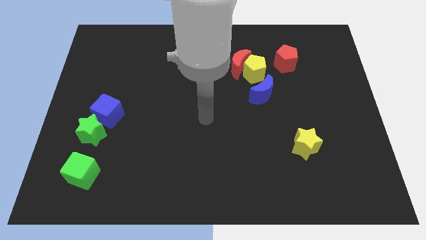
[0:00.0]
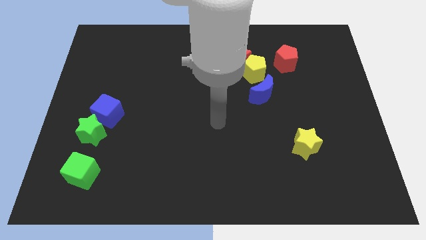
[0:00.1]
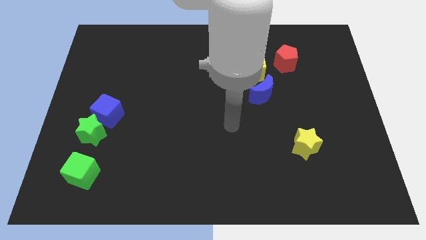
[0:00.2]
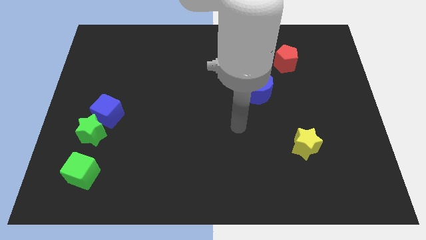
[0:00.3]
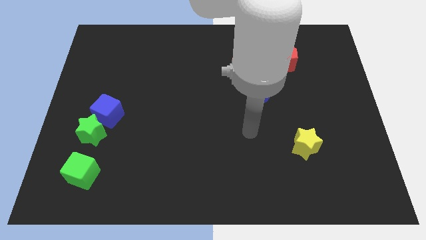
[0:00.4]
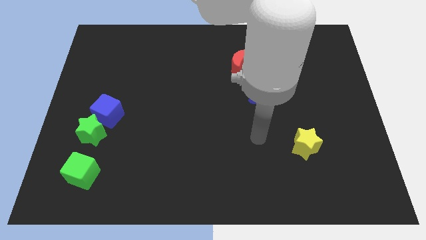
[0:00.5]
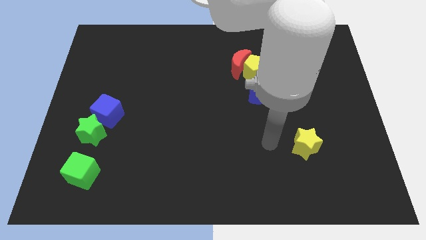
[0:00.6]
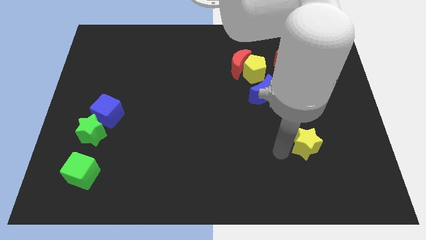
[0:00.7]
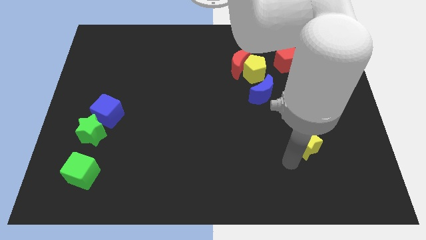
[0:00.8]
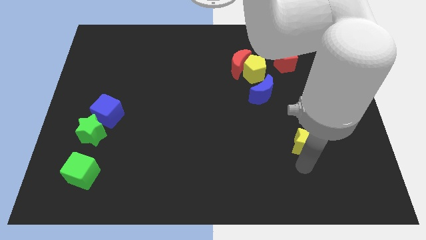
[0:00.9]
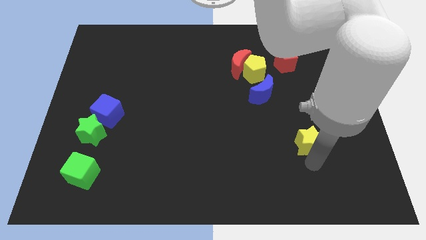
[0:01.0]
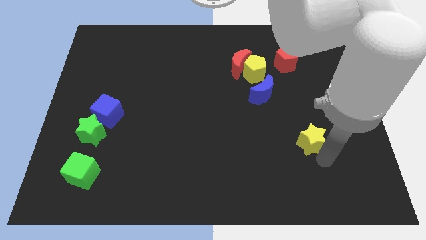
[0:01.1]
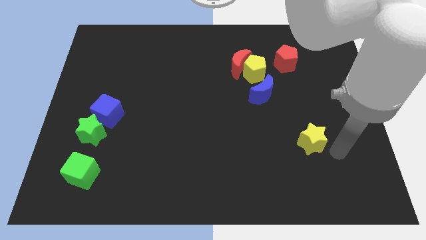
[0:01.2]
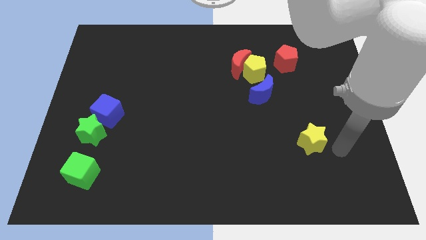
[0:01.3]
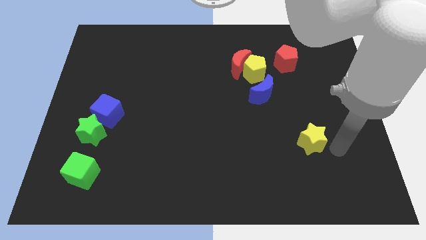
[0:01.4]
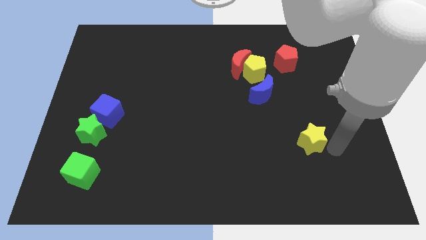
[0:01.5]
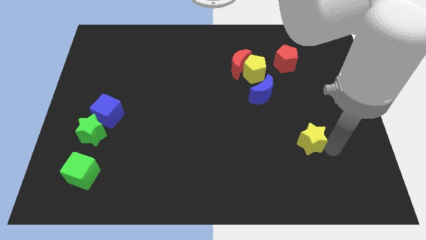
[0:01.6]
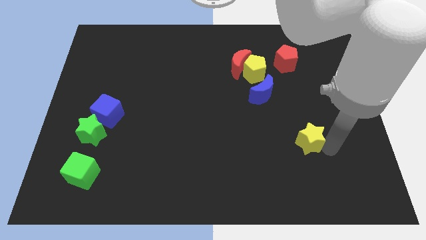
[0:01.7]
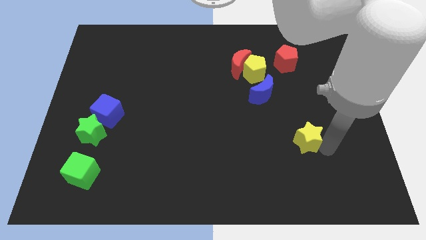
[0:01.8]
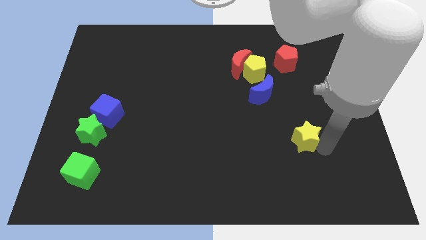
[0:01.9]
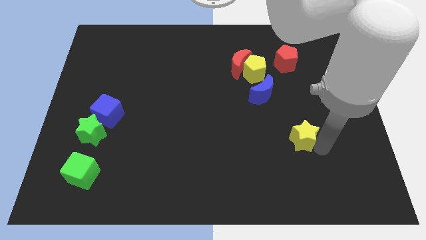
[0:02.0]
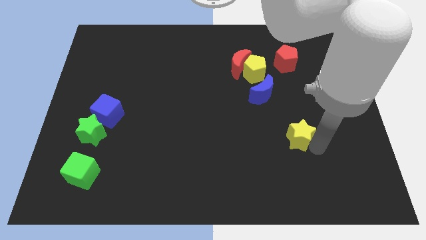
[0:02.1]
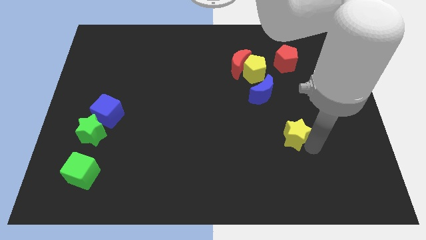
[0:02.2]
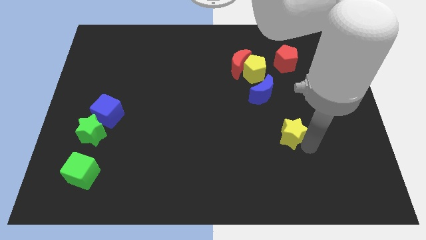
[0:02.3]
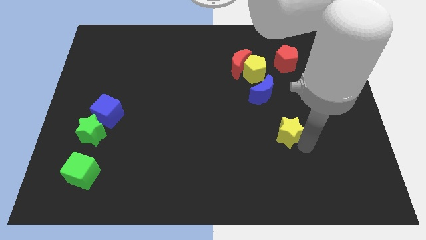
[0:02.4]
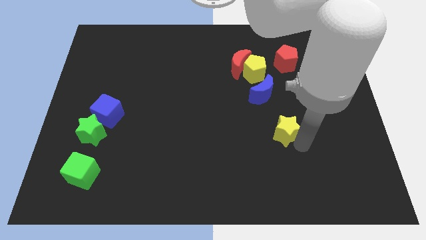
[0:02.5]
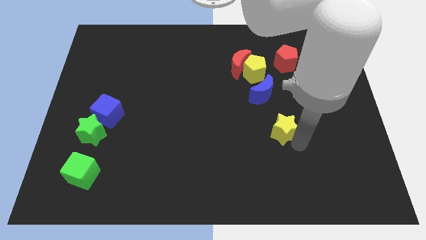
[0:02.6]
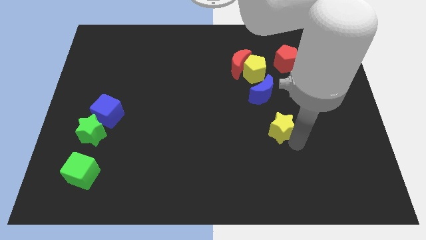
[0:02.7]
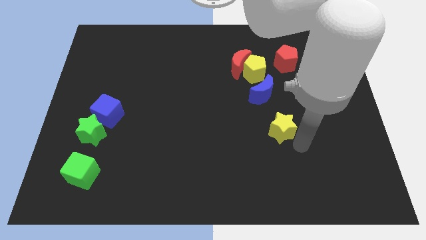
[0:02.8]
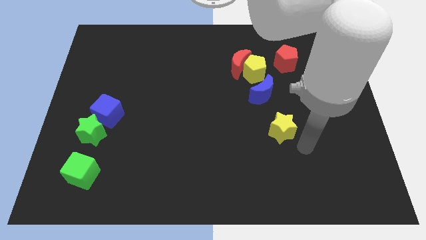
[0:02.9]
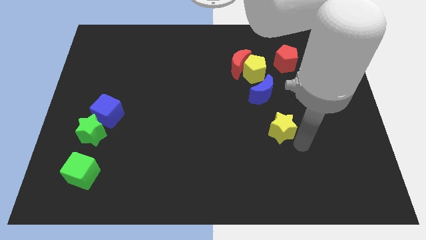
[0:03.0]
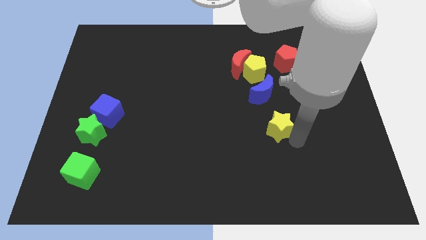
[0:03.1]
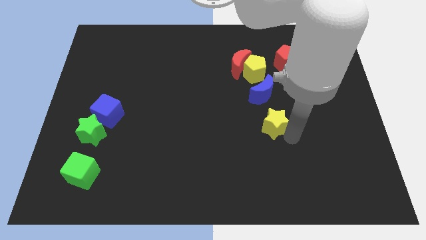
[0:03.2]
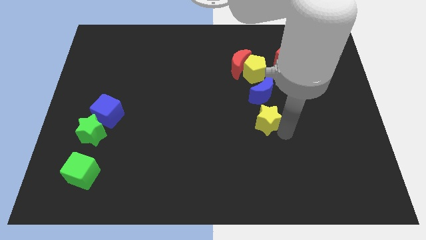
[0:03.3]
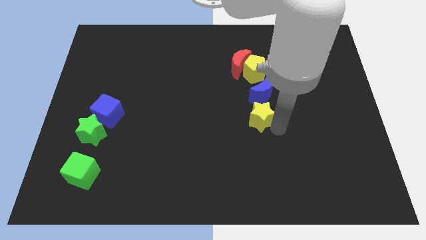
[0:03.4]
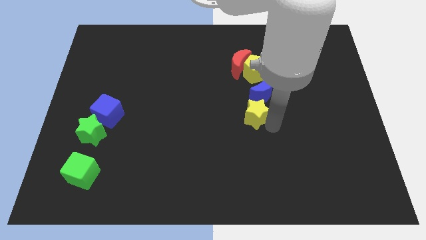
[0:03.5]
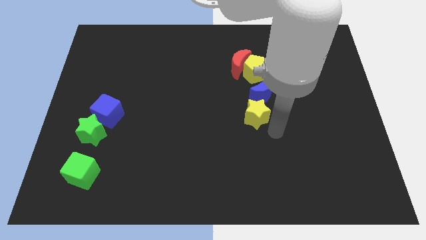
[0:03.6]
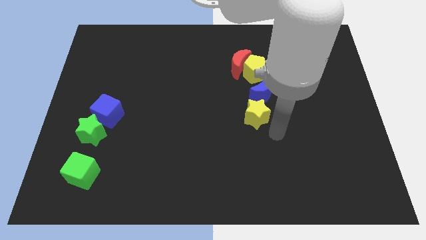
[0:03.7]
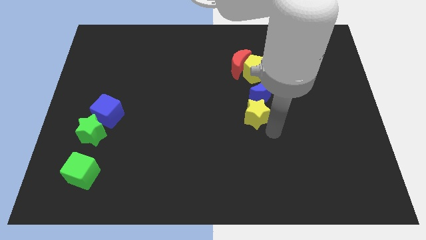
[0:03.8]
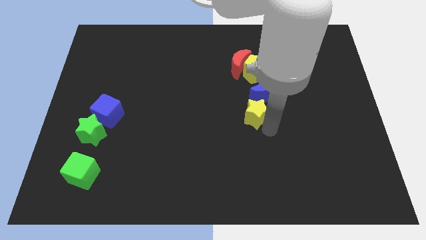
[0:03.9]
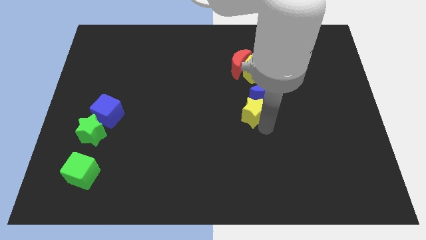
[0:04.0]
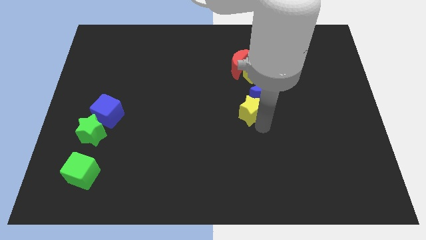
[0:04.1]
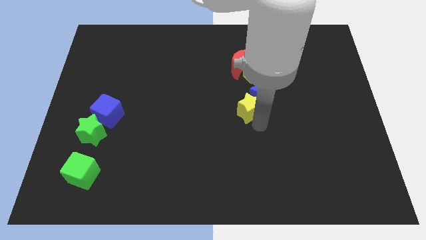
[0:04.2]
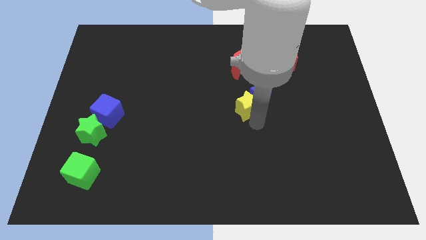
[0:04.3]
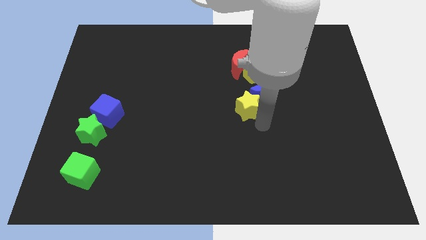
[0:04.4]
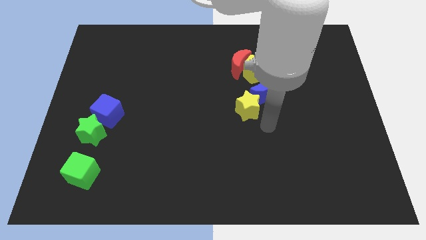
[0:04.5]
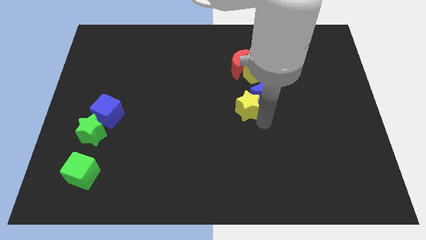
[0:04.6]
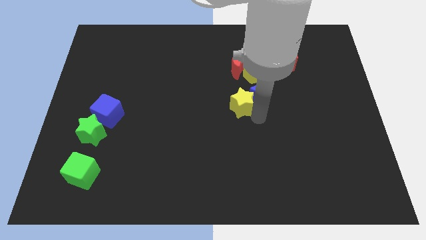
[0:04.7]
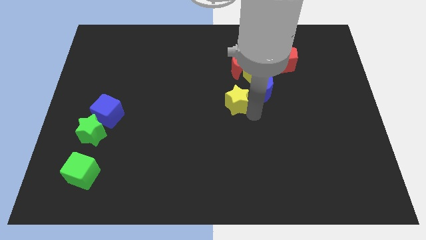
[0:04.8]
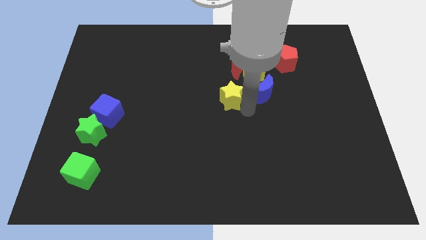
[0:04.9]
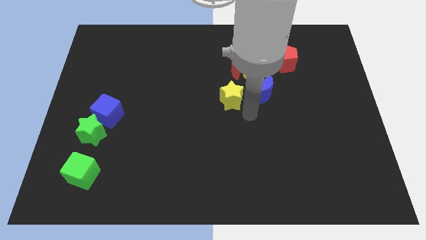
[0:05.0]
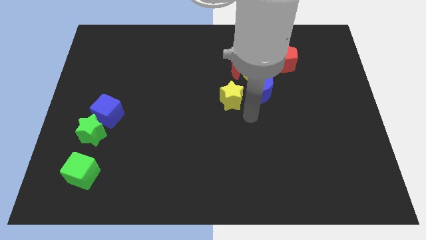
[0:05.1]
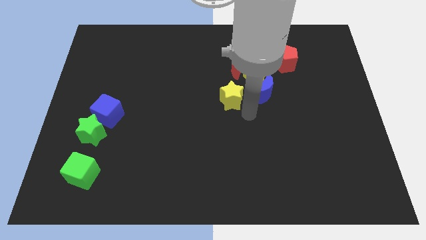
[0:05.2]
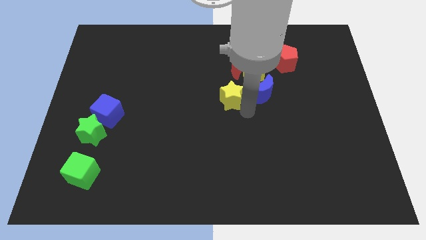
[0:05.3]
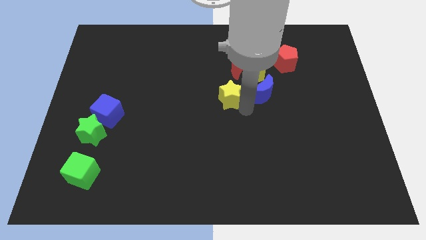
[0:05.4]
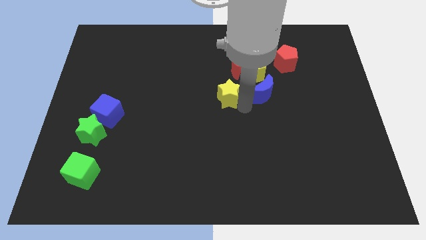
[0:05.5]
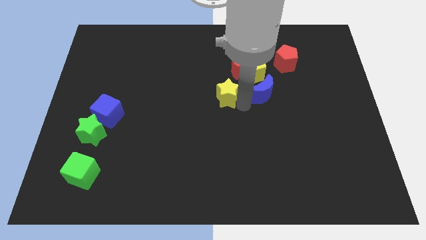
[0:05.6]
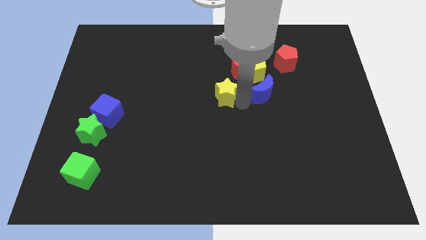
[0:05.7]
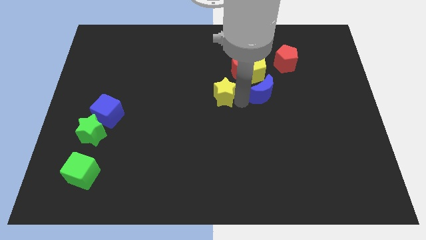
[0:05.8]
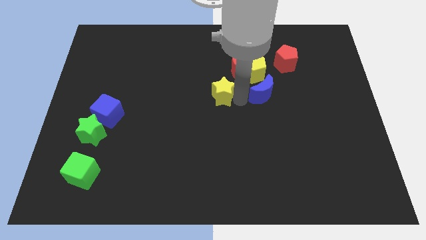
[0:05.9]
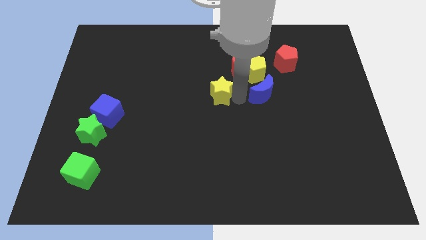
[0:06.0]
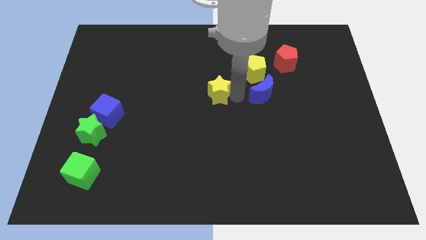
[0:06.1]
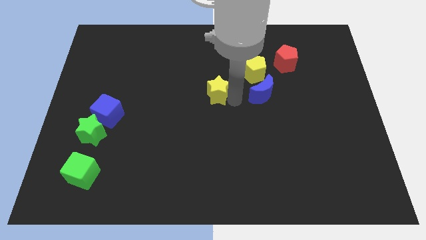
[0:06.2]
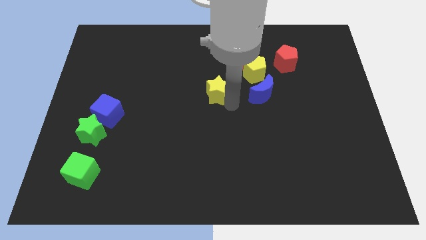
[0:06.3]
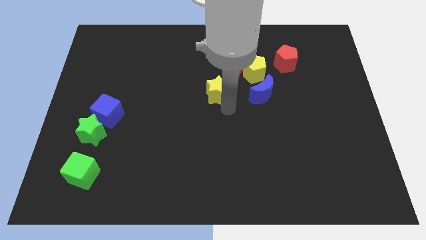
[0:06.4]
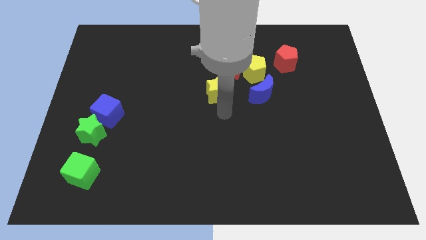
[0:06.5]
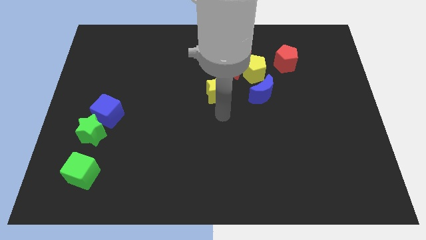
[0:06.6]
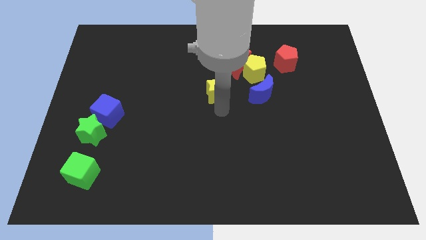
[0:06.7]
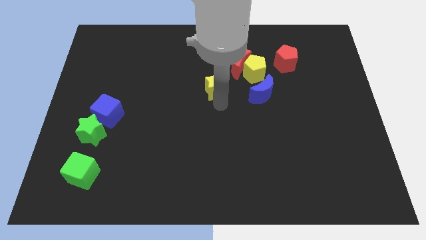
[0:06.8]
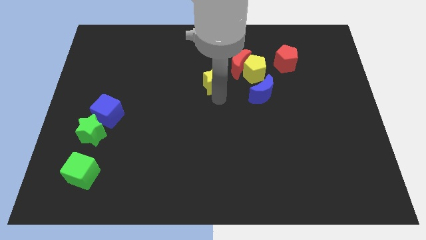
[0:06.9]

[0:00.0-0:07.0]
move the yellow star to the left of the yellow pentagon

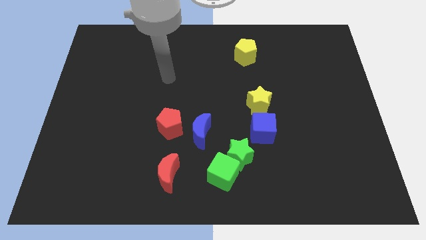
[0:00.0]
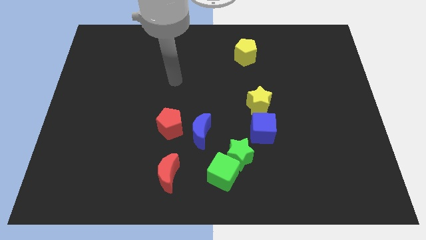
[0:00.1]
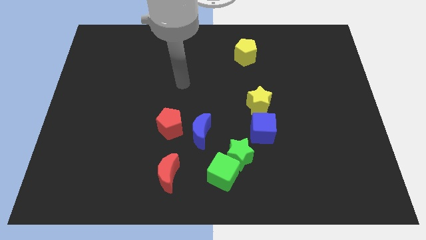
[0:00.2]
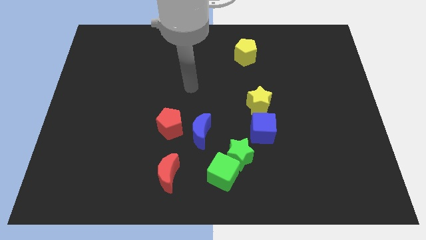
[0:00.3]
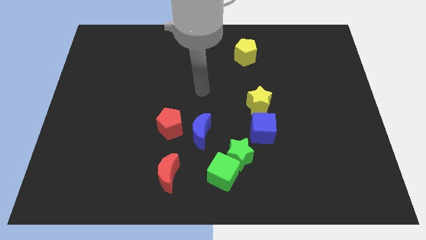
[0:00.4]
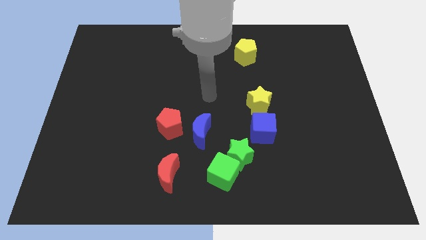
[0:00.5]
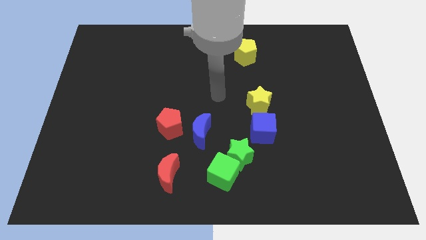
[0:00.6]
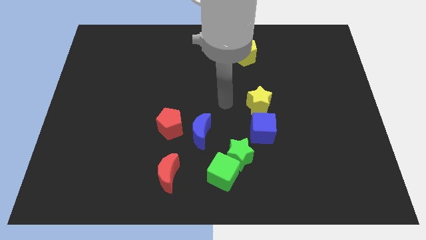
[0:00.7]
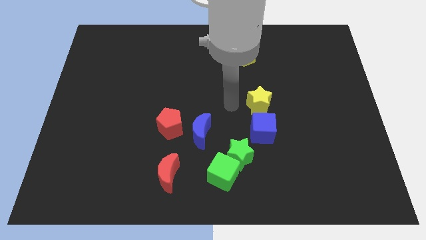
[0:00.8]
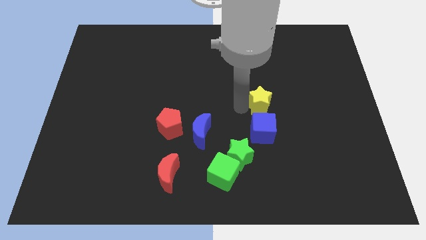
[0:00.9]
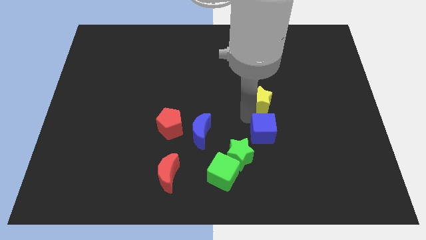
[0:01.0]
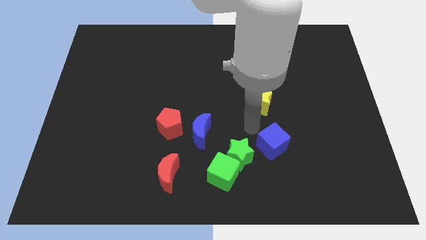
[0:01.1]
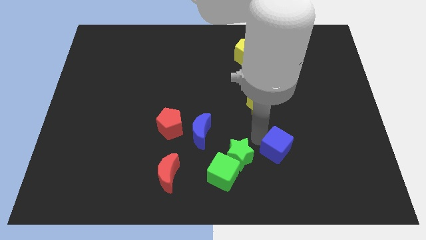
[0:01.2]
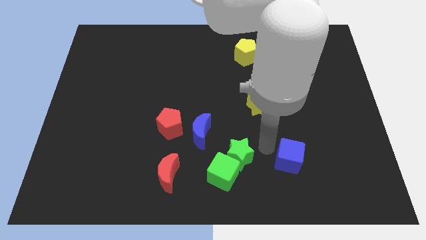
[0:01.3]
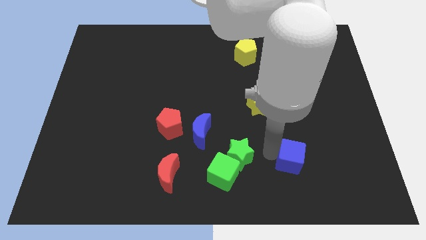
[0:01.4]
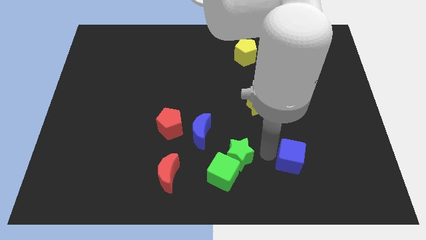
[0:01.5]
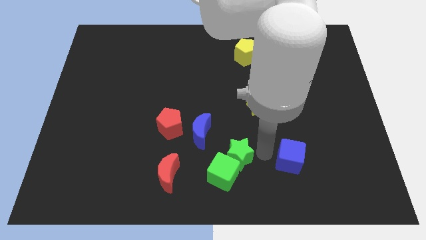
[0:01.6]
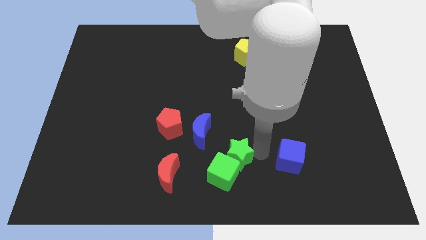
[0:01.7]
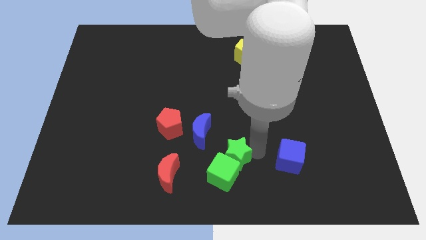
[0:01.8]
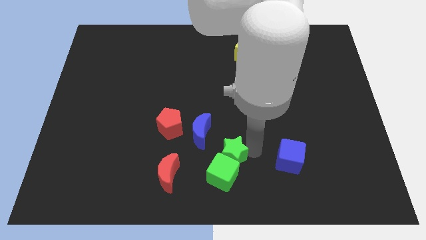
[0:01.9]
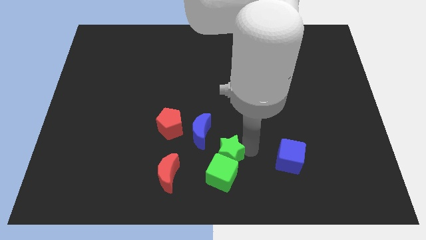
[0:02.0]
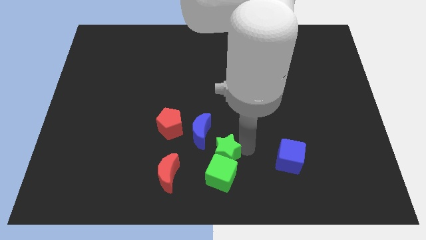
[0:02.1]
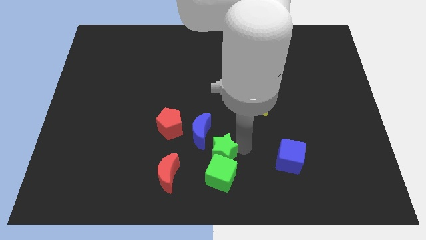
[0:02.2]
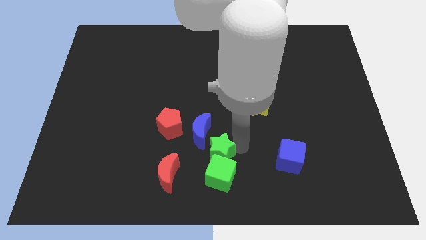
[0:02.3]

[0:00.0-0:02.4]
move the green star to the bottom side of the blue moon
